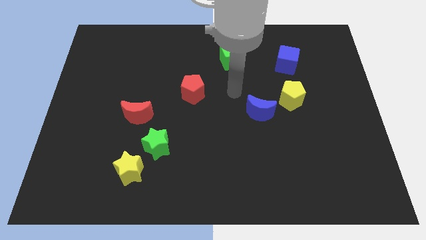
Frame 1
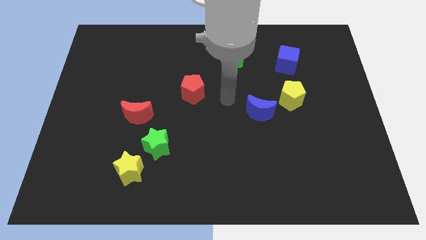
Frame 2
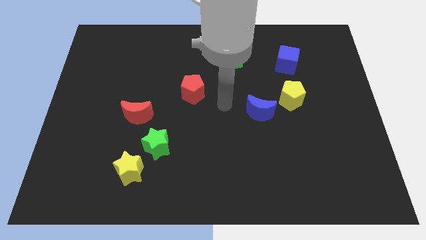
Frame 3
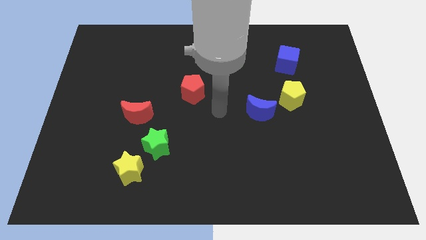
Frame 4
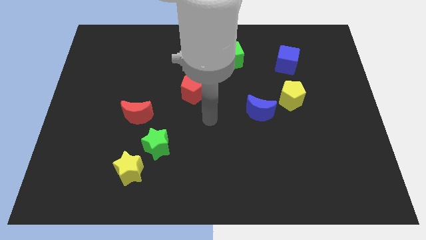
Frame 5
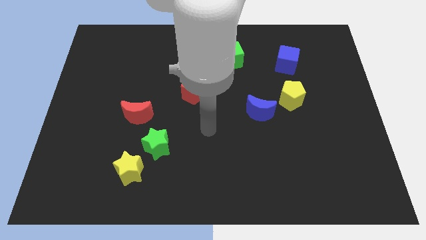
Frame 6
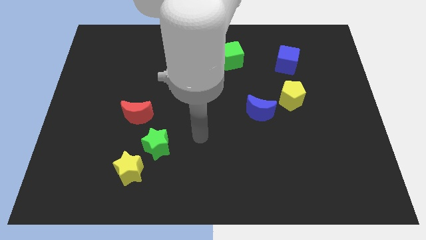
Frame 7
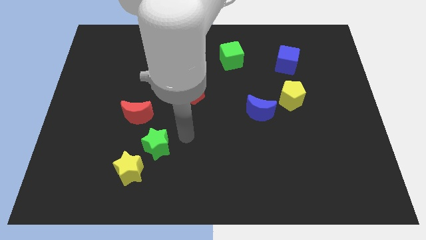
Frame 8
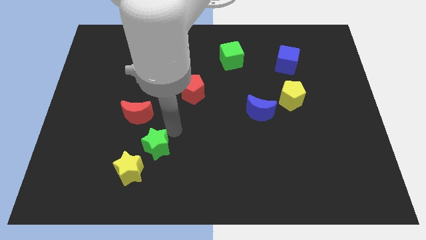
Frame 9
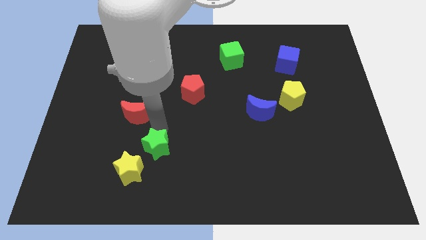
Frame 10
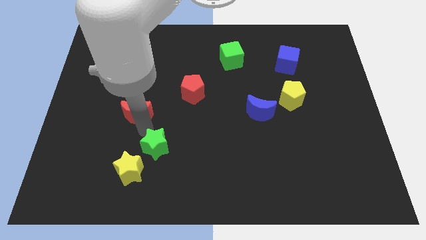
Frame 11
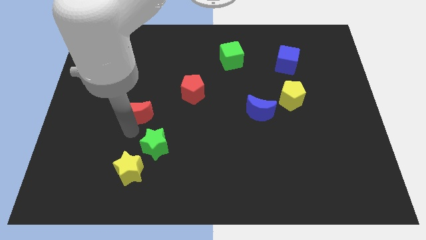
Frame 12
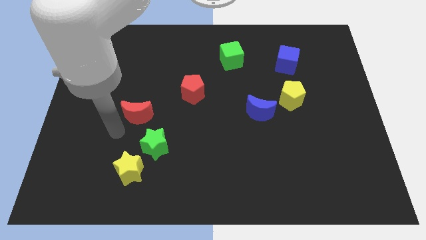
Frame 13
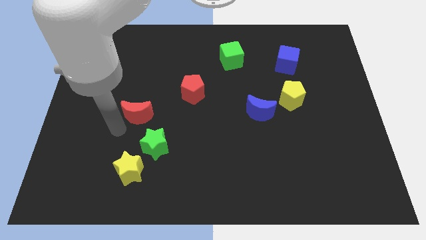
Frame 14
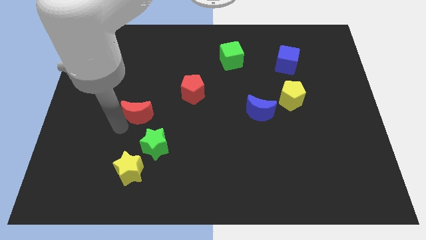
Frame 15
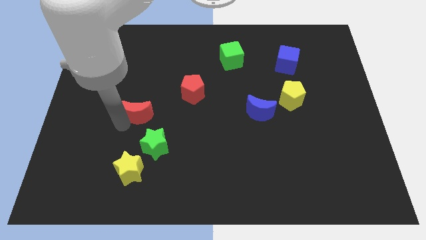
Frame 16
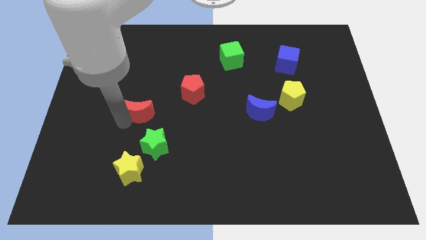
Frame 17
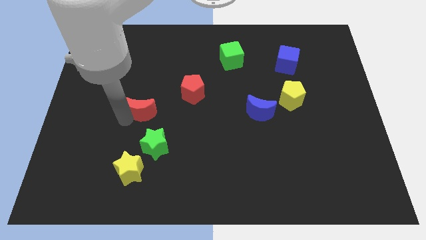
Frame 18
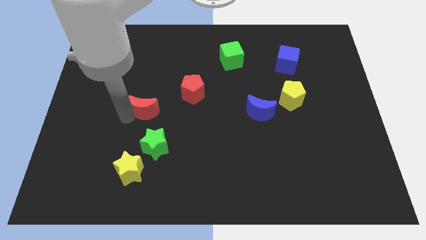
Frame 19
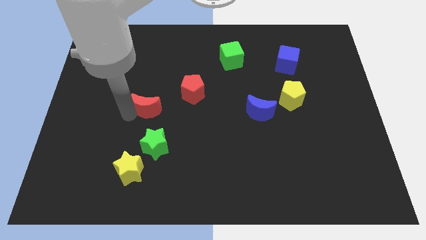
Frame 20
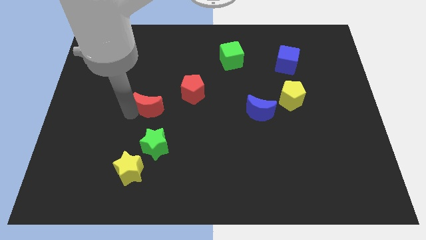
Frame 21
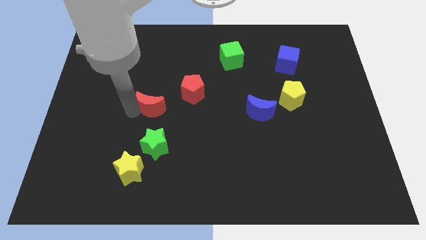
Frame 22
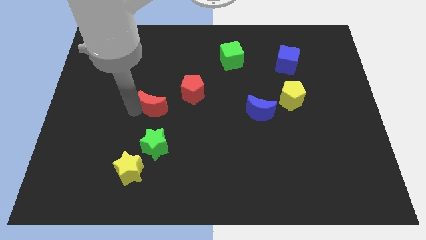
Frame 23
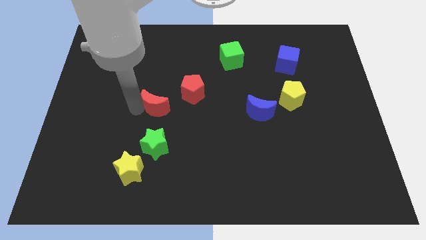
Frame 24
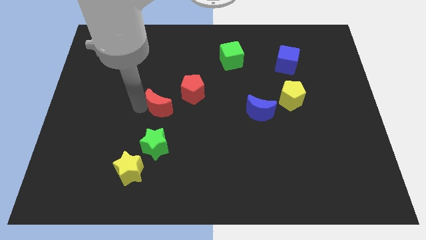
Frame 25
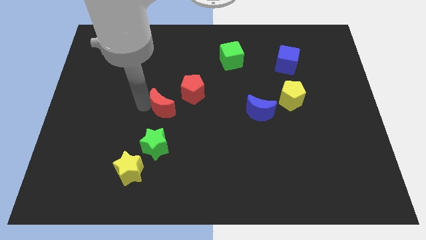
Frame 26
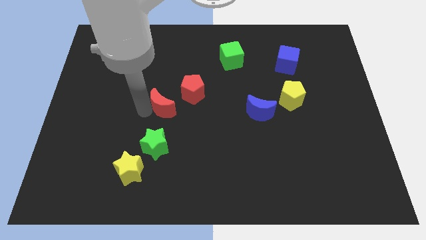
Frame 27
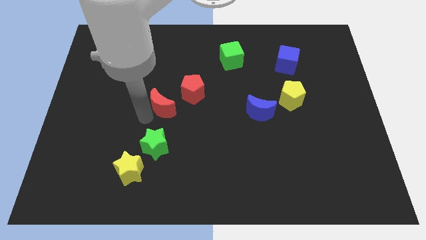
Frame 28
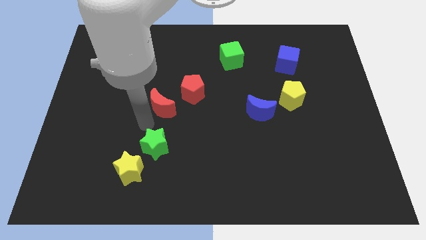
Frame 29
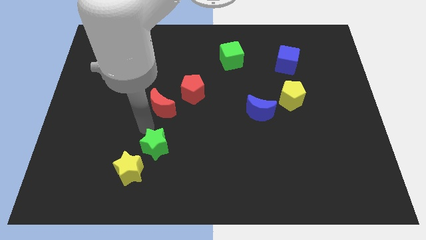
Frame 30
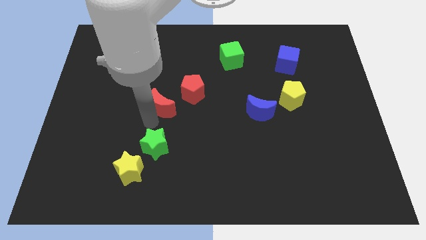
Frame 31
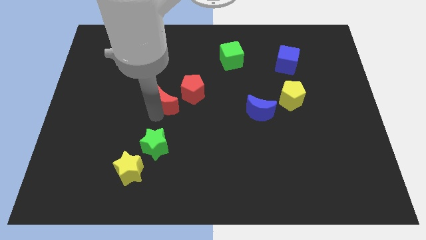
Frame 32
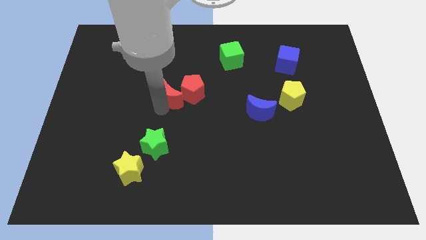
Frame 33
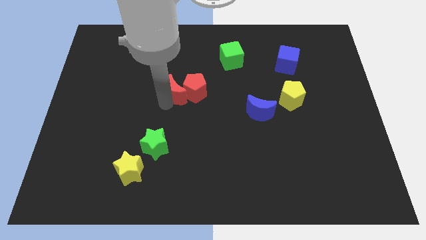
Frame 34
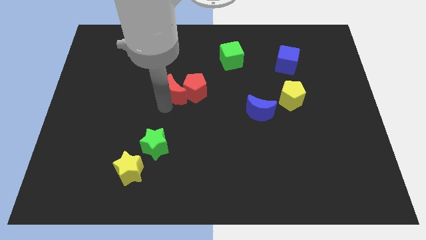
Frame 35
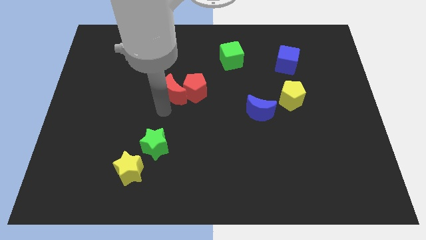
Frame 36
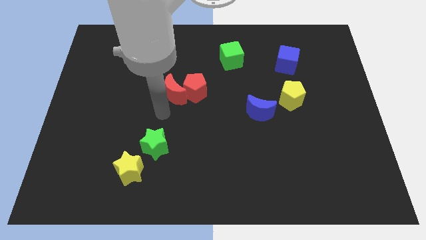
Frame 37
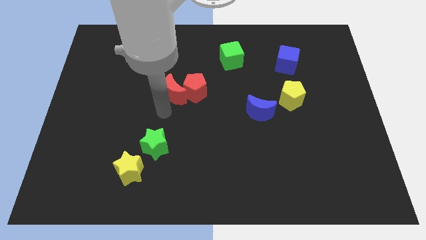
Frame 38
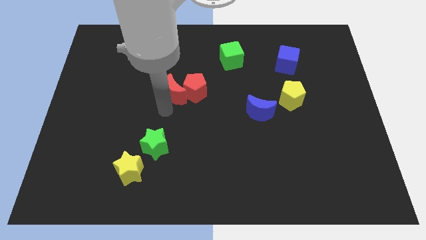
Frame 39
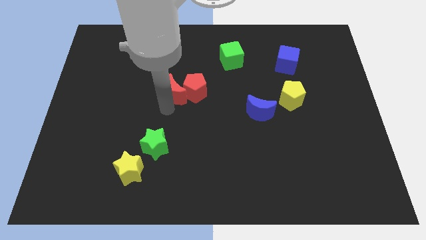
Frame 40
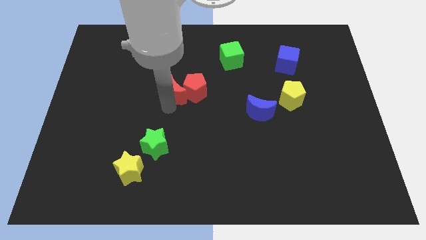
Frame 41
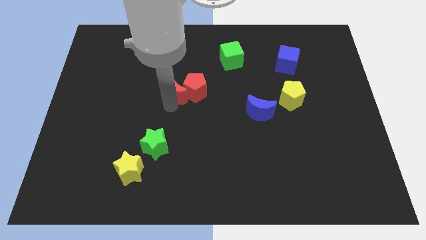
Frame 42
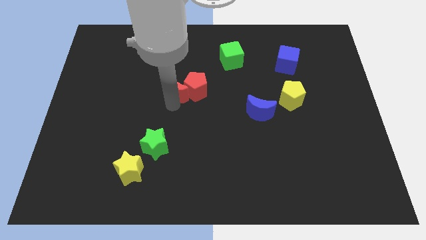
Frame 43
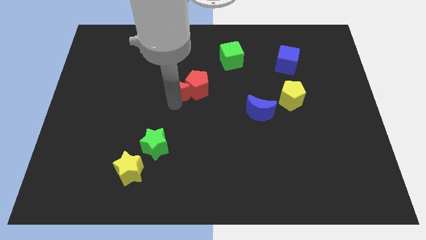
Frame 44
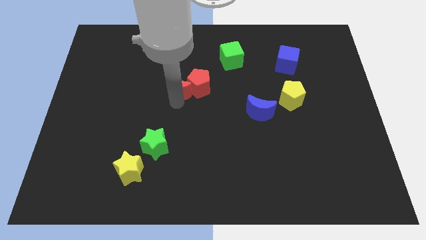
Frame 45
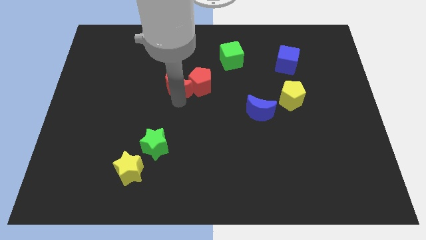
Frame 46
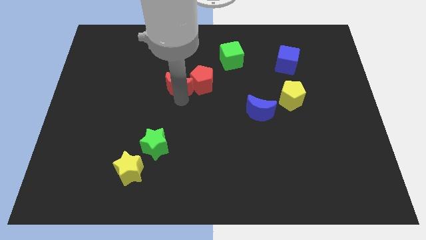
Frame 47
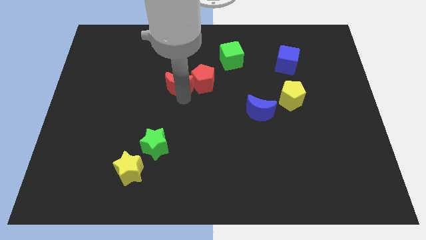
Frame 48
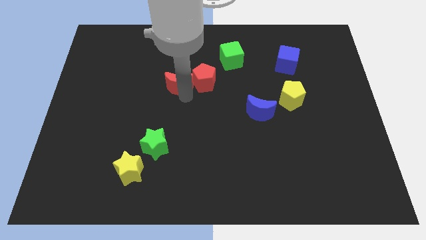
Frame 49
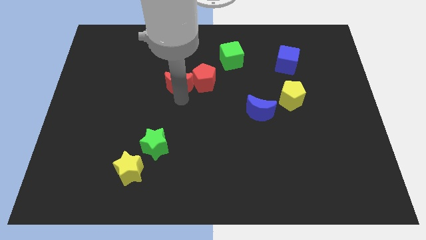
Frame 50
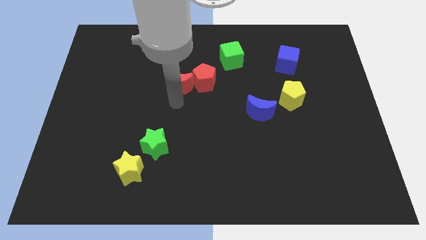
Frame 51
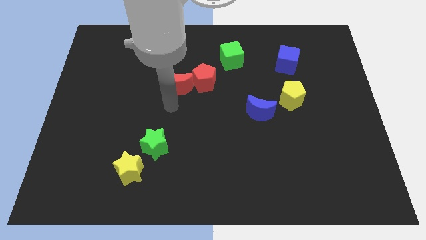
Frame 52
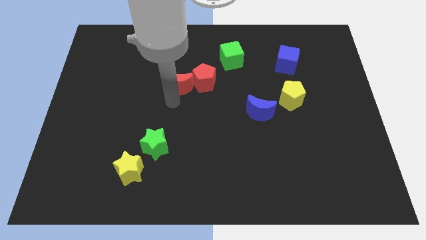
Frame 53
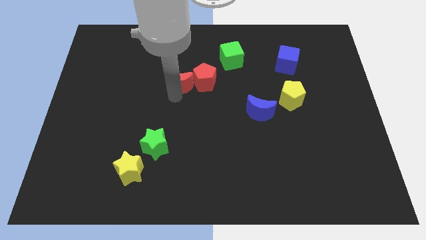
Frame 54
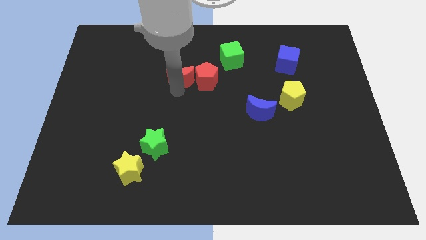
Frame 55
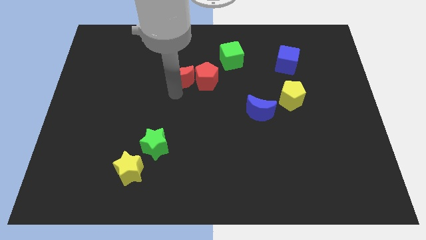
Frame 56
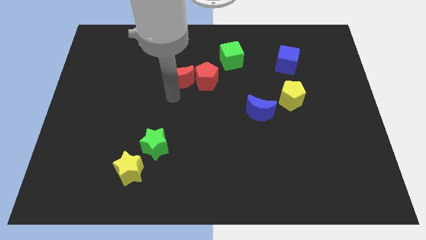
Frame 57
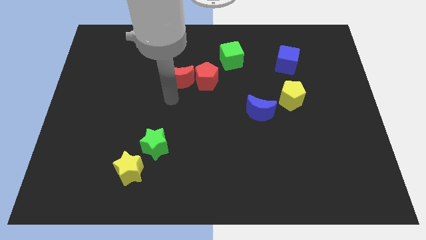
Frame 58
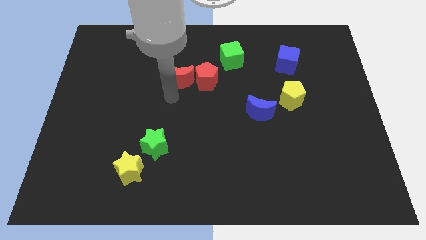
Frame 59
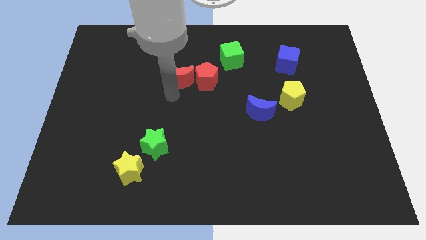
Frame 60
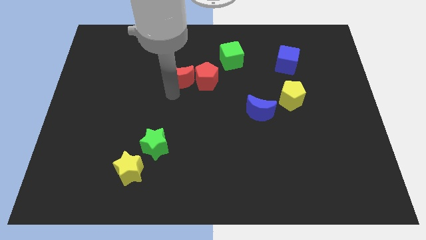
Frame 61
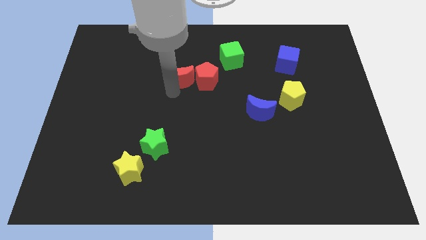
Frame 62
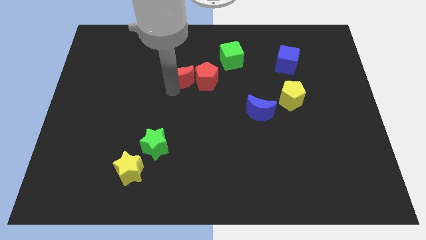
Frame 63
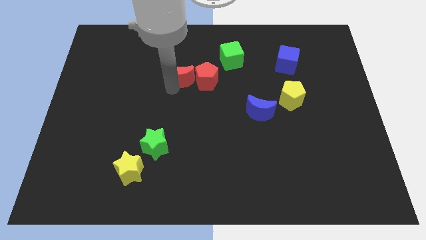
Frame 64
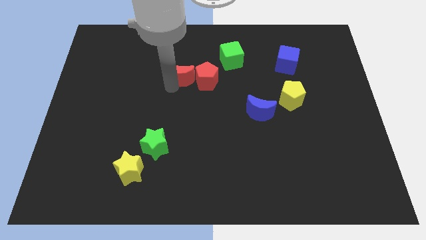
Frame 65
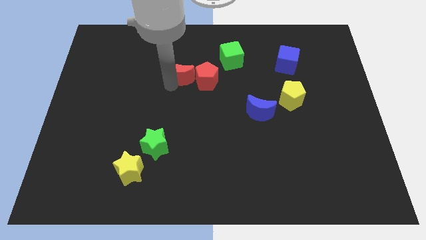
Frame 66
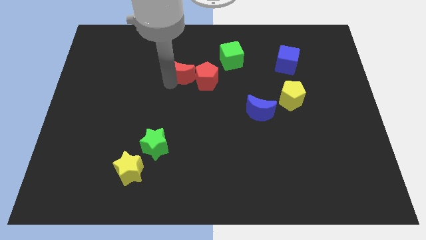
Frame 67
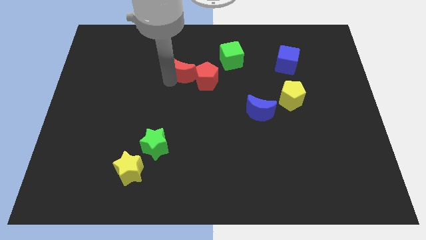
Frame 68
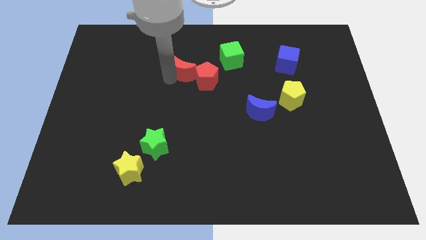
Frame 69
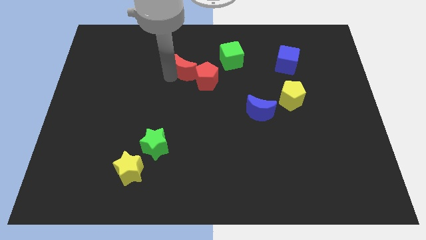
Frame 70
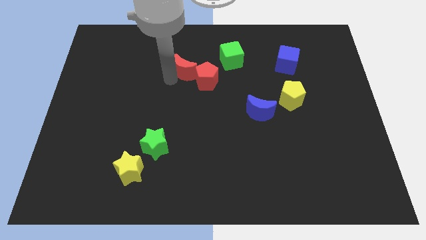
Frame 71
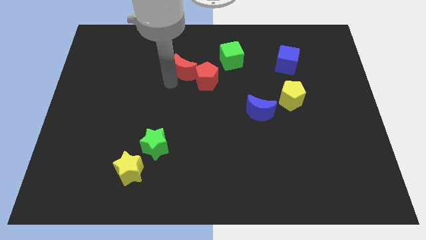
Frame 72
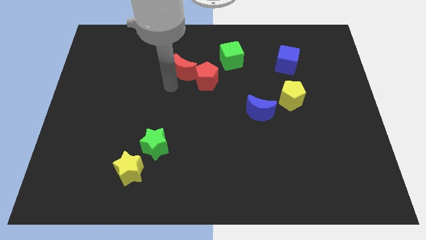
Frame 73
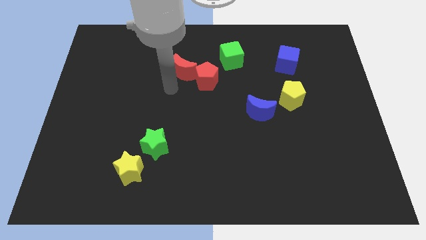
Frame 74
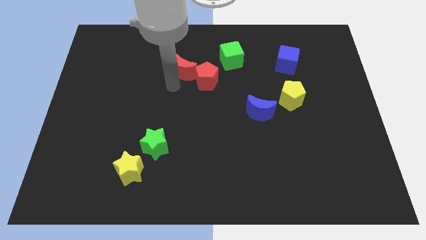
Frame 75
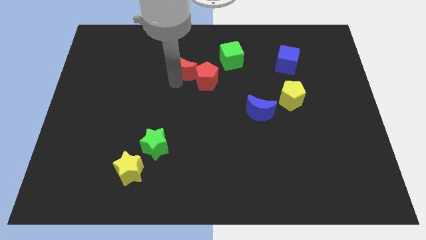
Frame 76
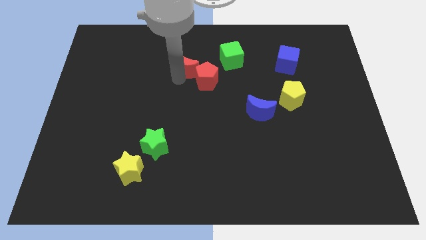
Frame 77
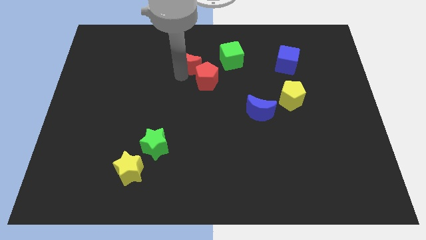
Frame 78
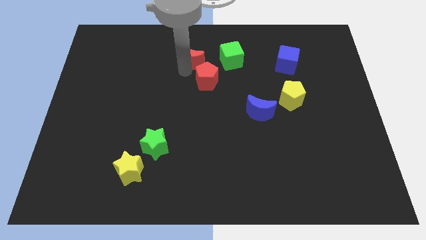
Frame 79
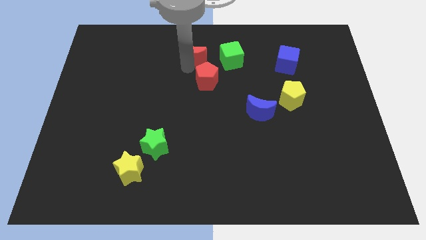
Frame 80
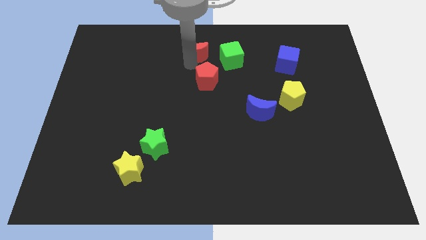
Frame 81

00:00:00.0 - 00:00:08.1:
slide the red moon to the top
